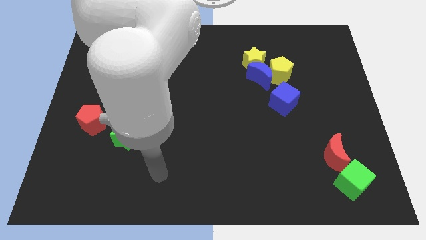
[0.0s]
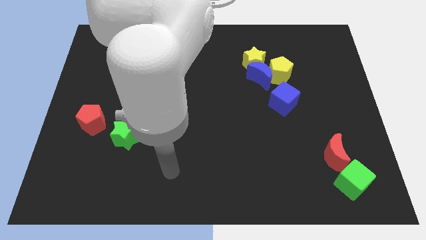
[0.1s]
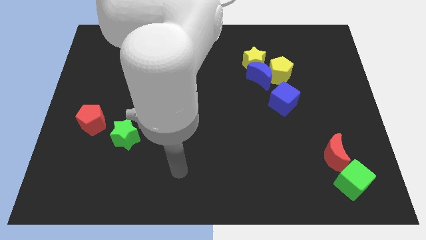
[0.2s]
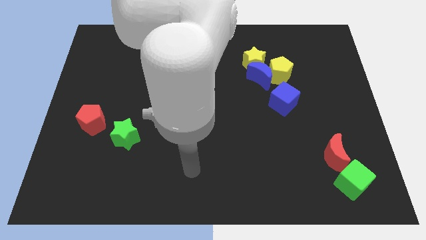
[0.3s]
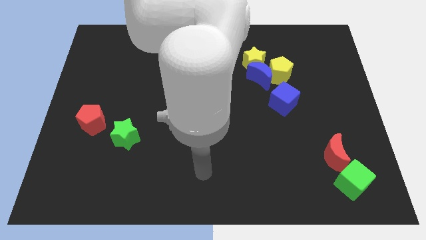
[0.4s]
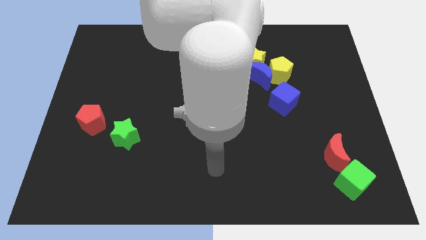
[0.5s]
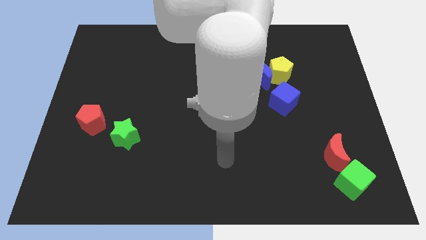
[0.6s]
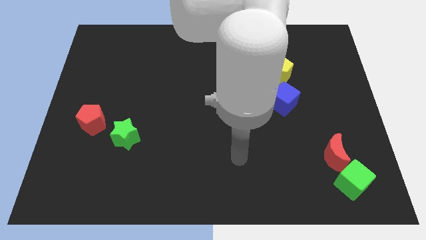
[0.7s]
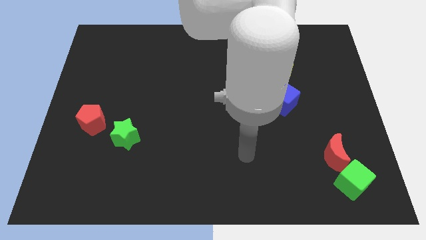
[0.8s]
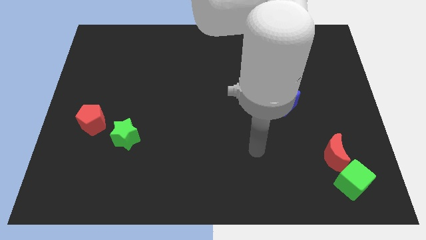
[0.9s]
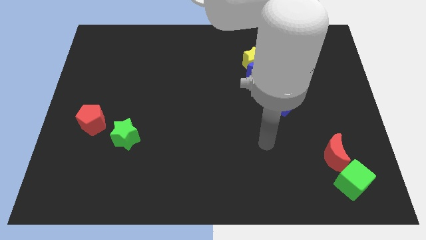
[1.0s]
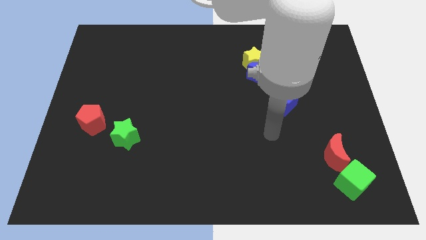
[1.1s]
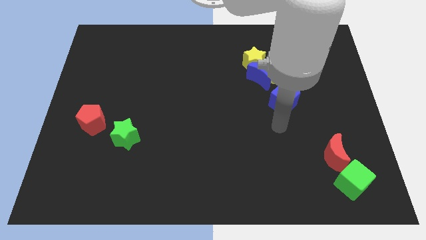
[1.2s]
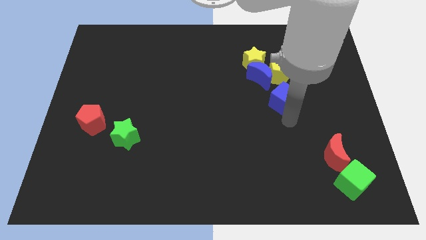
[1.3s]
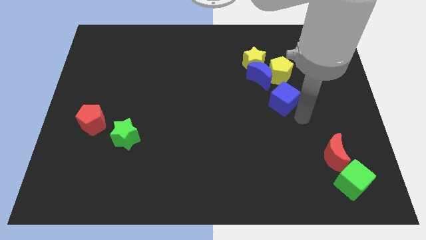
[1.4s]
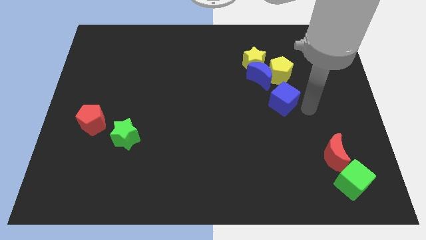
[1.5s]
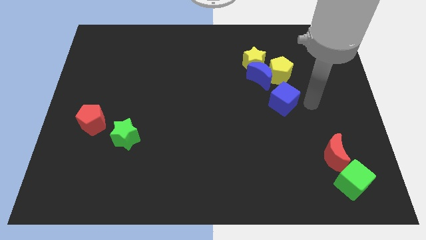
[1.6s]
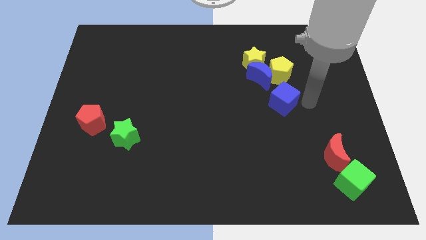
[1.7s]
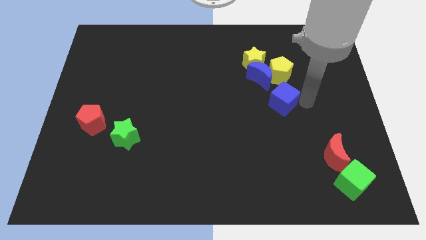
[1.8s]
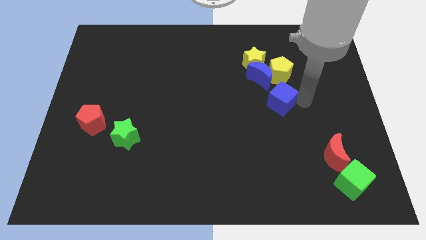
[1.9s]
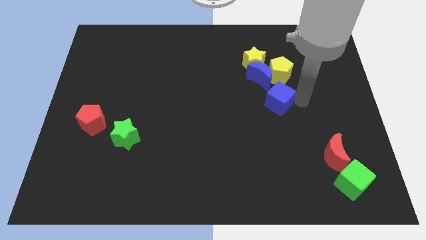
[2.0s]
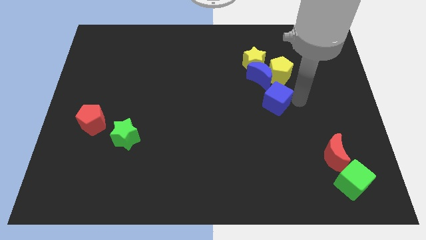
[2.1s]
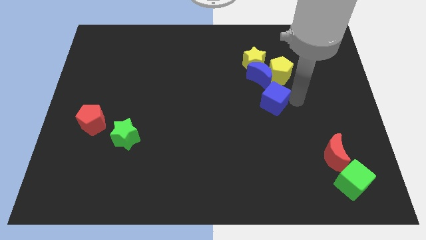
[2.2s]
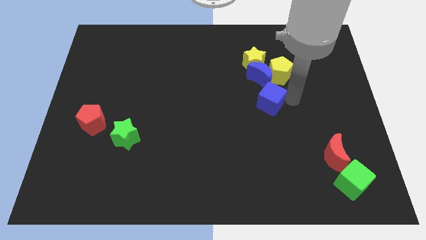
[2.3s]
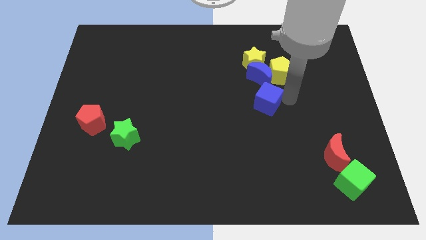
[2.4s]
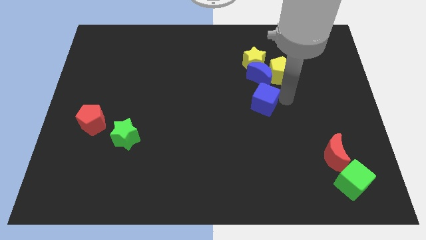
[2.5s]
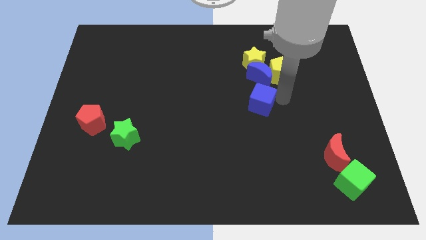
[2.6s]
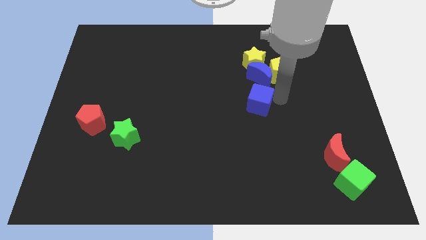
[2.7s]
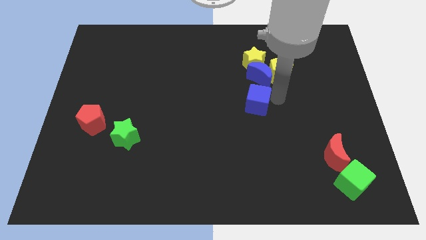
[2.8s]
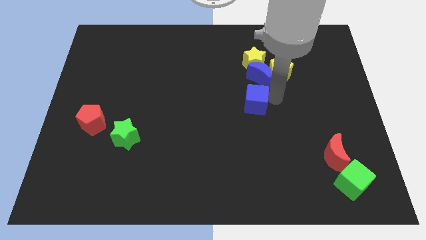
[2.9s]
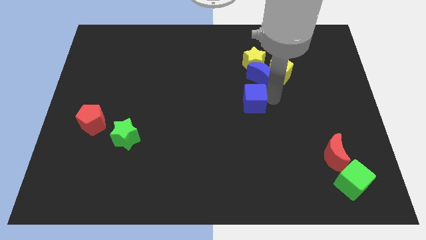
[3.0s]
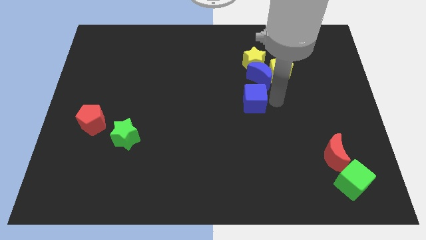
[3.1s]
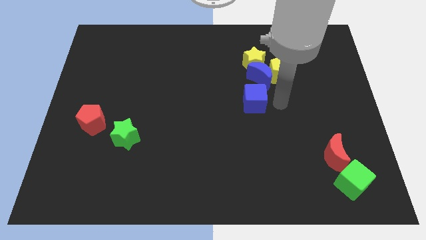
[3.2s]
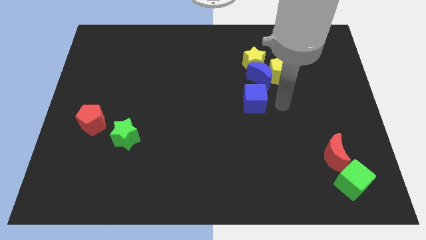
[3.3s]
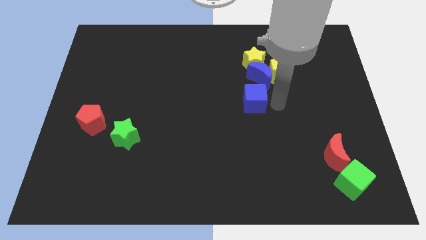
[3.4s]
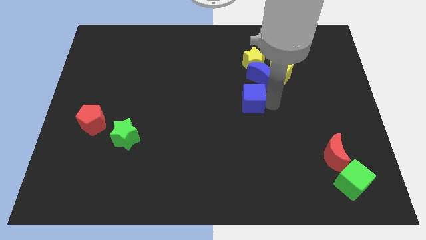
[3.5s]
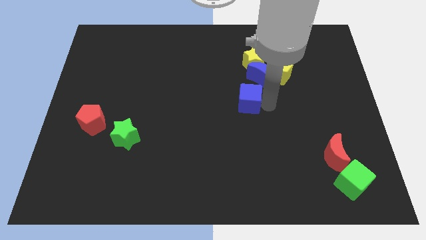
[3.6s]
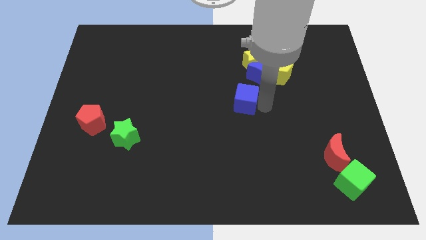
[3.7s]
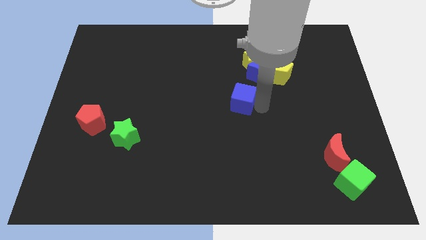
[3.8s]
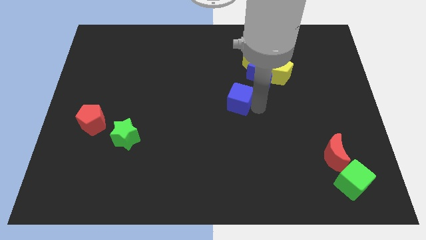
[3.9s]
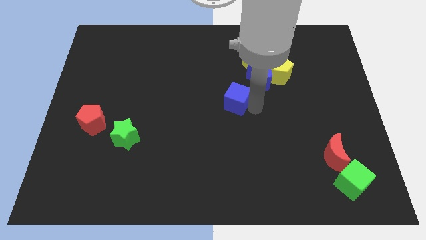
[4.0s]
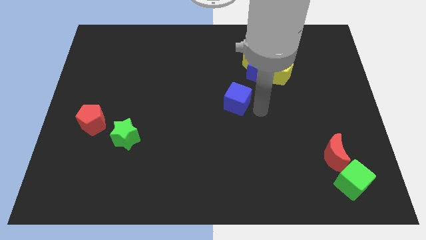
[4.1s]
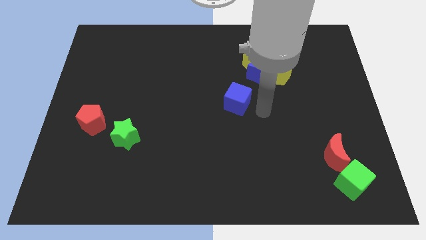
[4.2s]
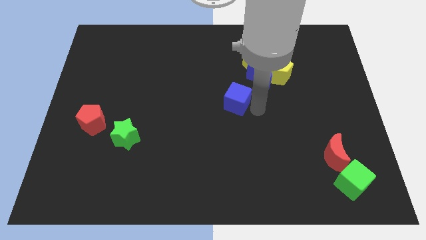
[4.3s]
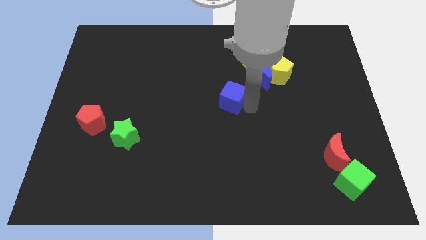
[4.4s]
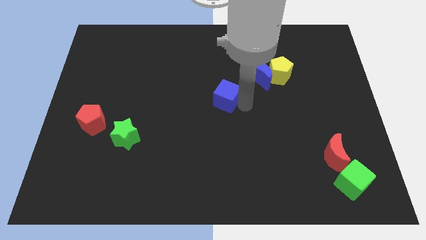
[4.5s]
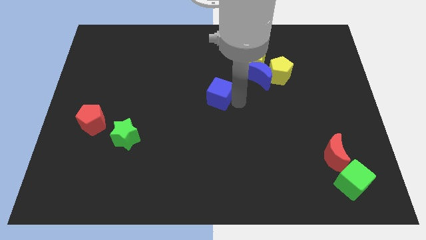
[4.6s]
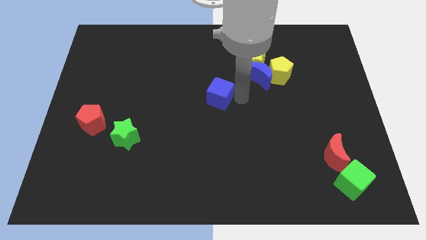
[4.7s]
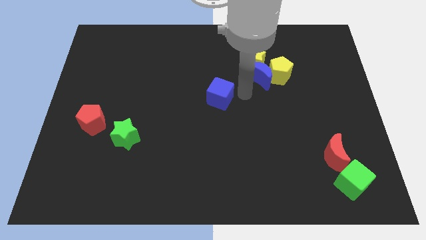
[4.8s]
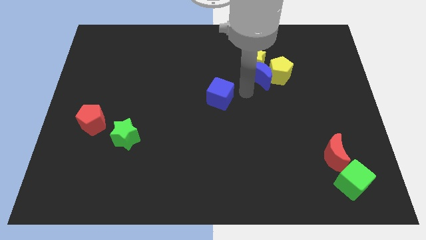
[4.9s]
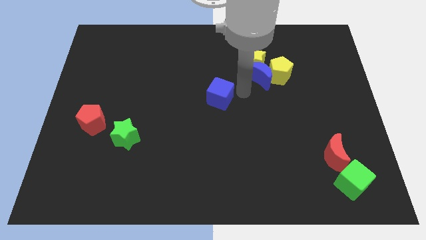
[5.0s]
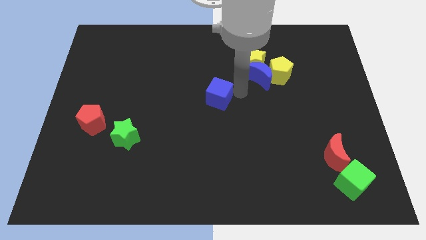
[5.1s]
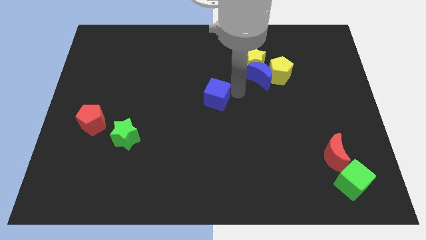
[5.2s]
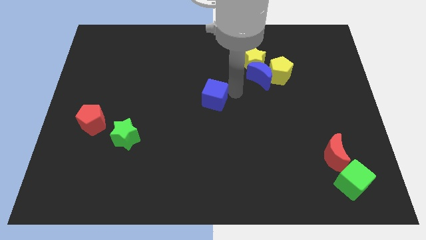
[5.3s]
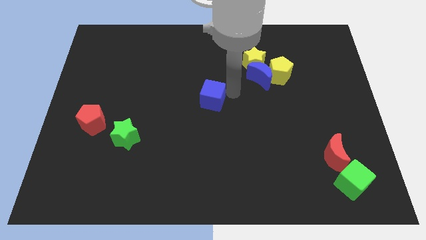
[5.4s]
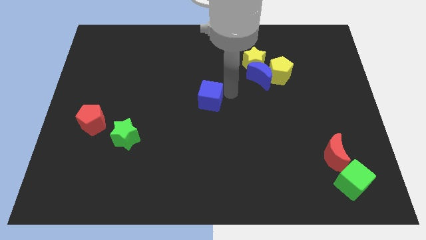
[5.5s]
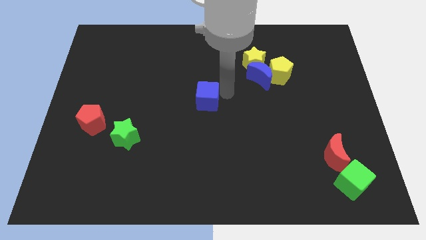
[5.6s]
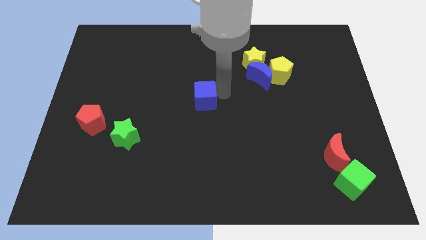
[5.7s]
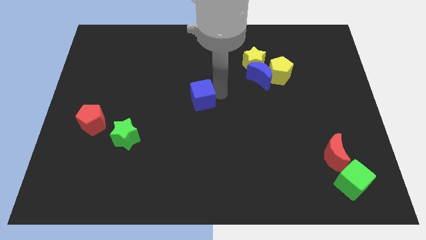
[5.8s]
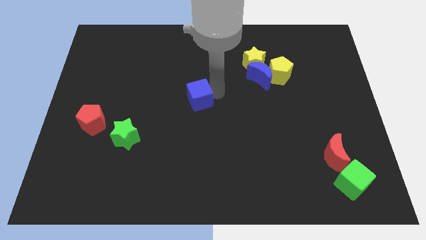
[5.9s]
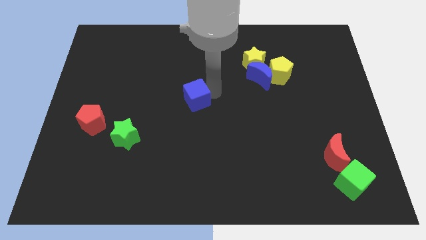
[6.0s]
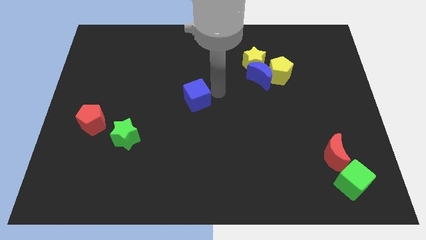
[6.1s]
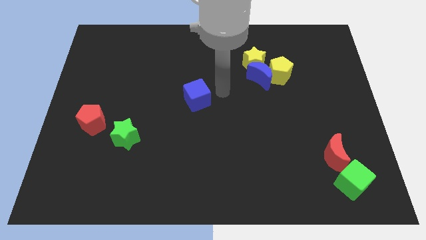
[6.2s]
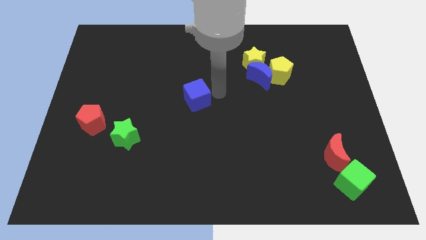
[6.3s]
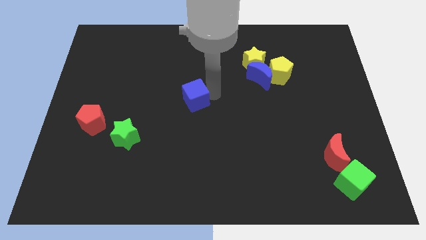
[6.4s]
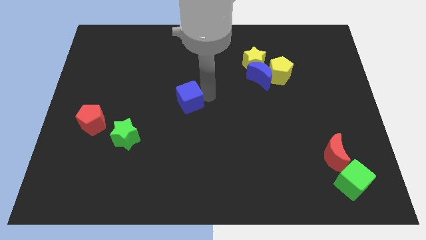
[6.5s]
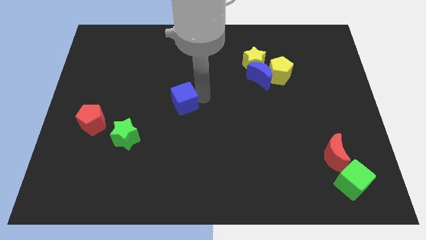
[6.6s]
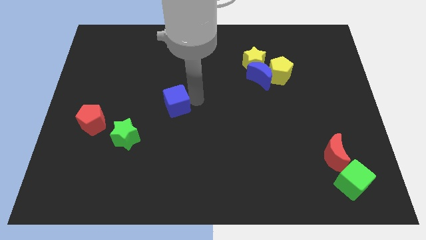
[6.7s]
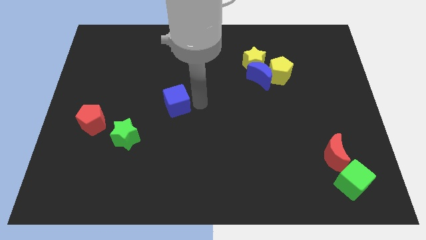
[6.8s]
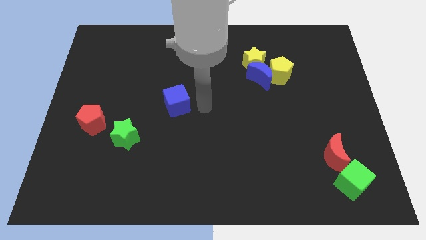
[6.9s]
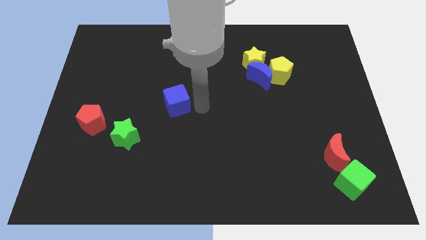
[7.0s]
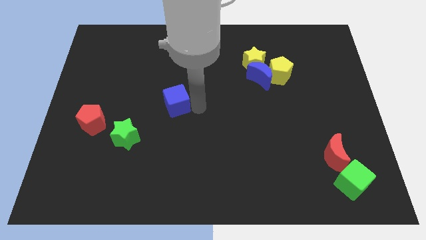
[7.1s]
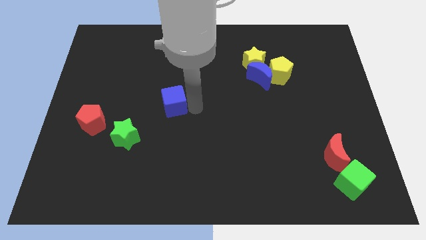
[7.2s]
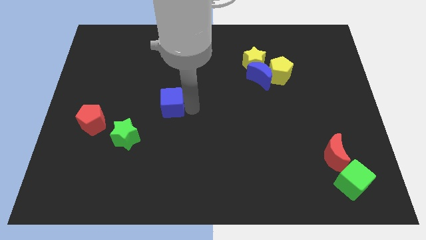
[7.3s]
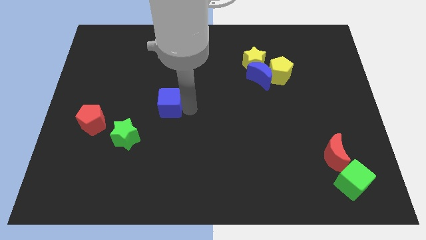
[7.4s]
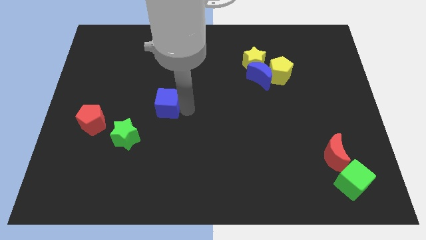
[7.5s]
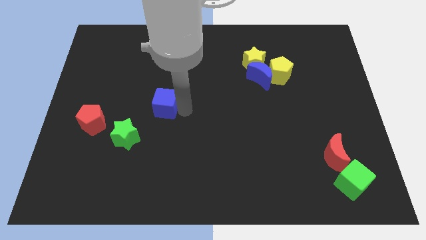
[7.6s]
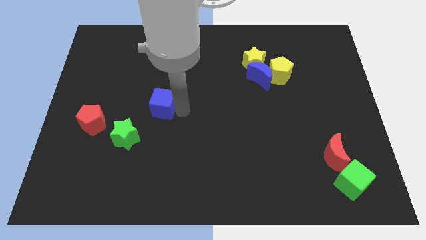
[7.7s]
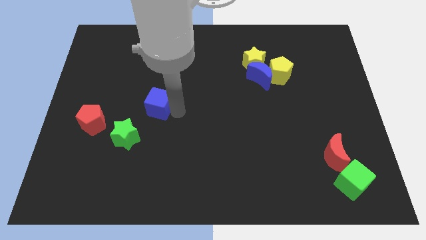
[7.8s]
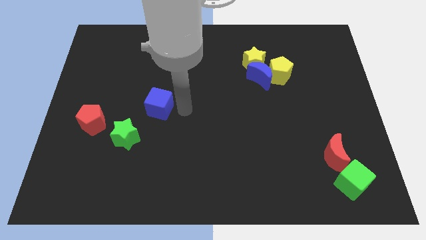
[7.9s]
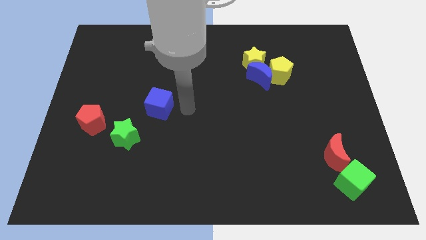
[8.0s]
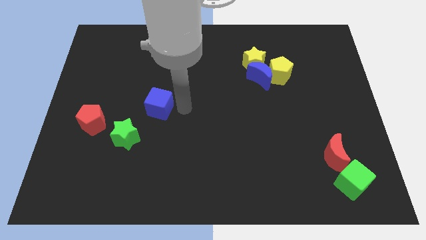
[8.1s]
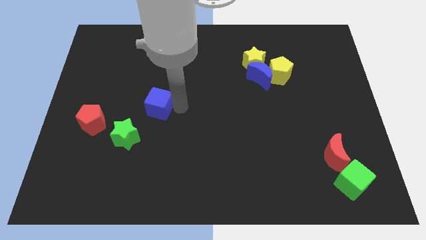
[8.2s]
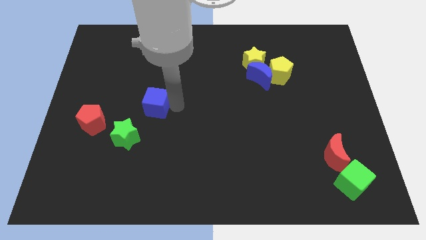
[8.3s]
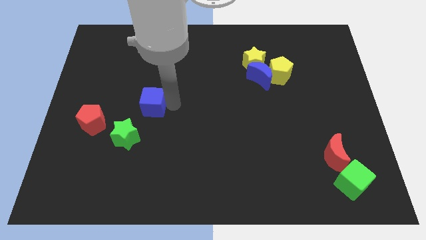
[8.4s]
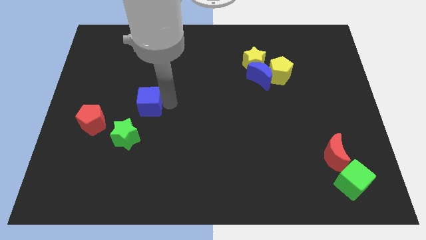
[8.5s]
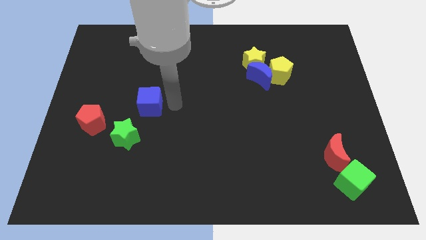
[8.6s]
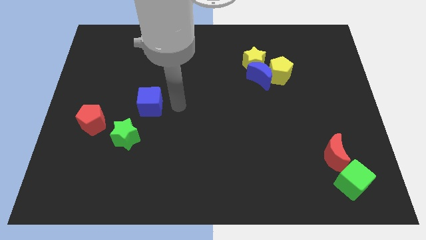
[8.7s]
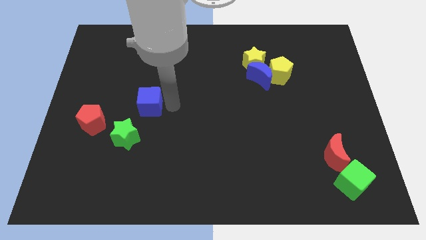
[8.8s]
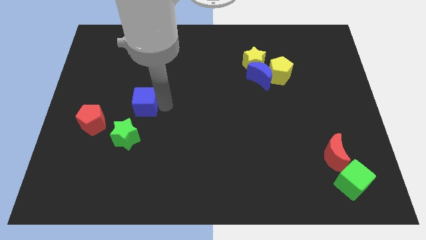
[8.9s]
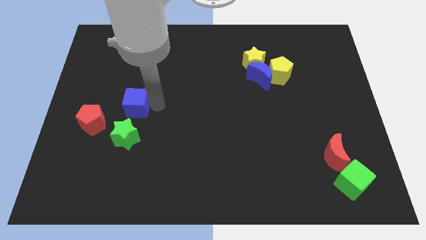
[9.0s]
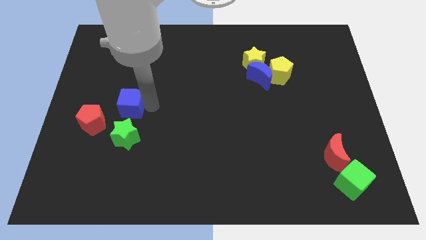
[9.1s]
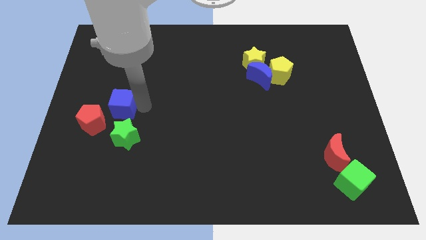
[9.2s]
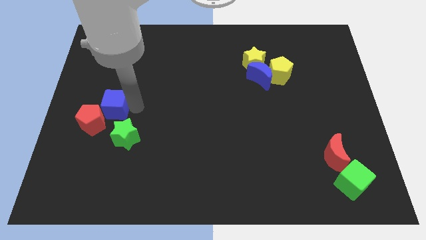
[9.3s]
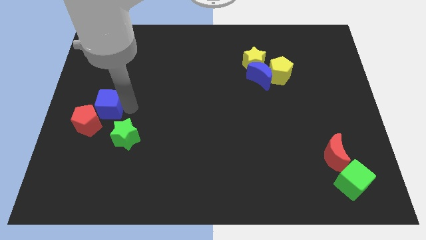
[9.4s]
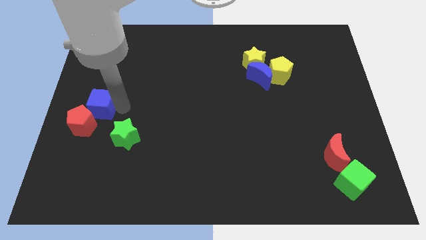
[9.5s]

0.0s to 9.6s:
move the blue cube to the left side
